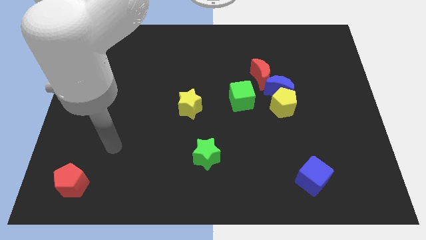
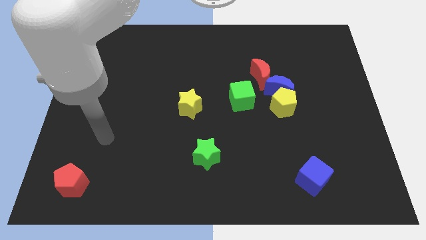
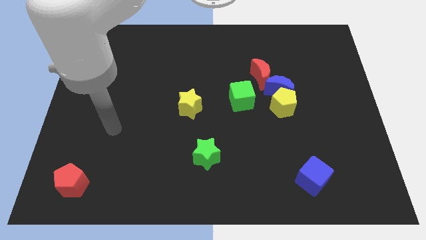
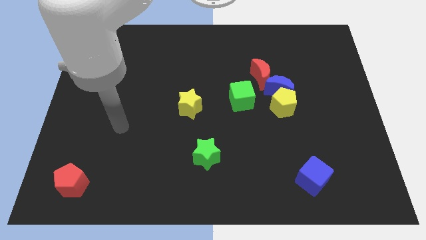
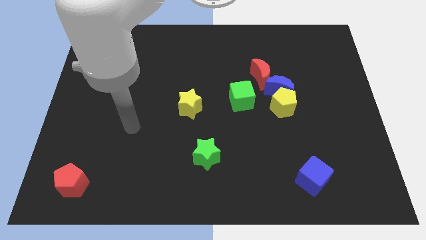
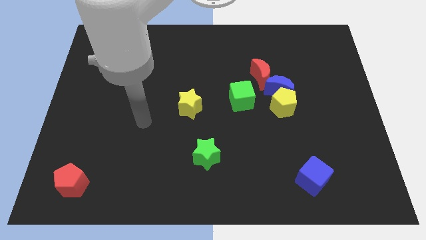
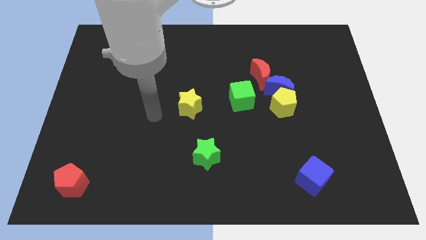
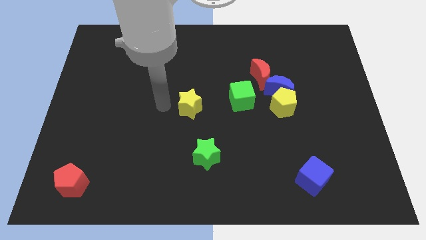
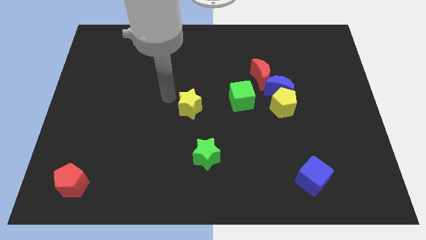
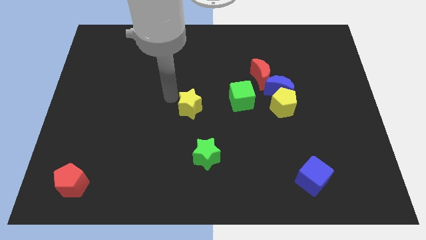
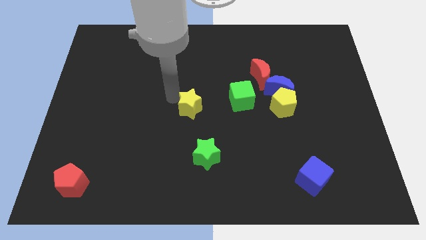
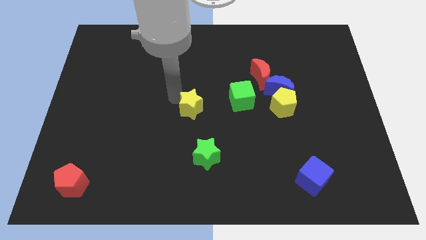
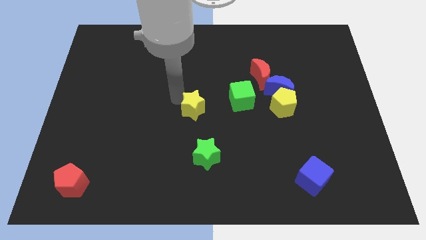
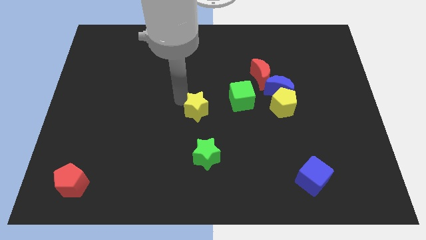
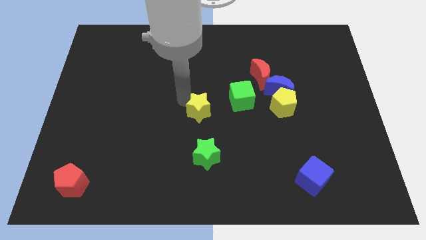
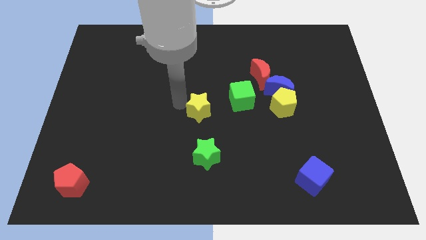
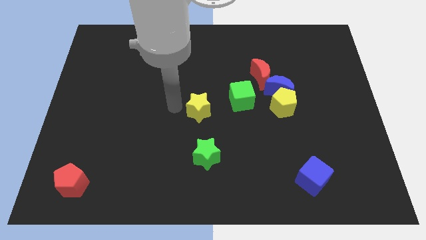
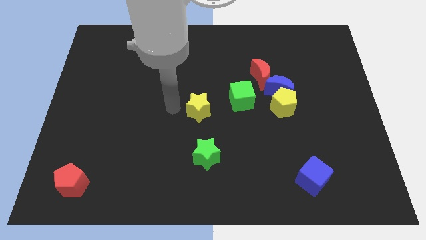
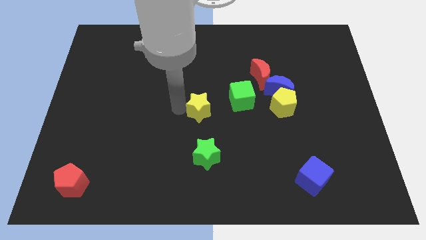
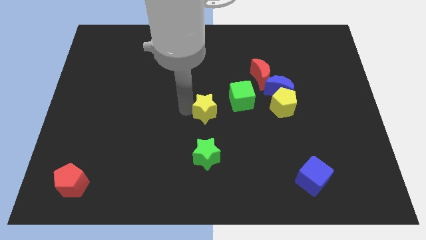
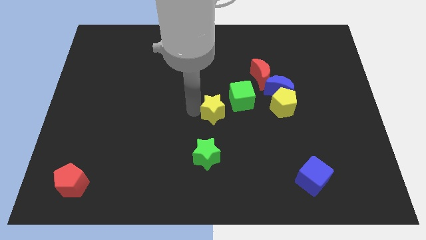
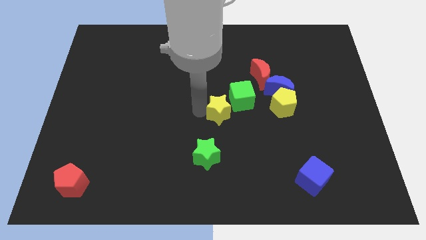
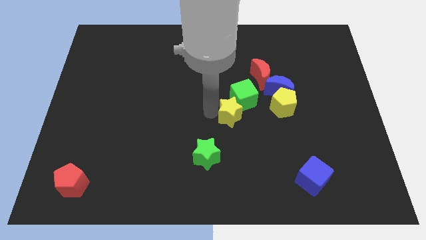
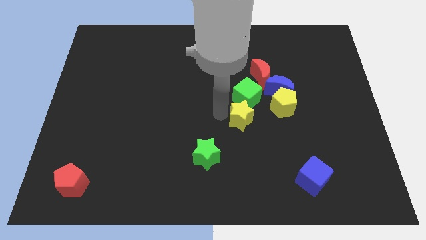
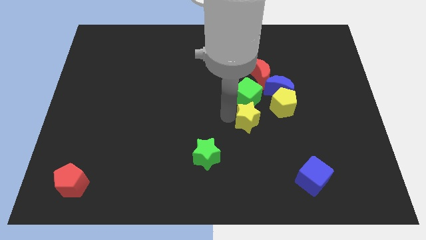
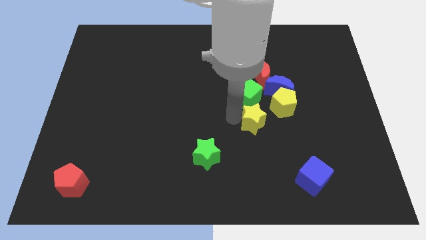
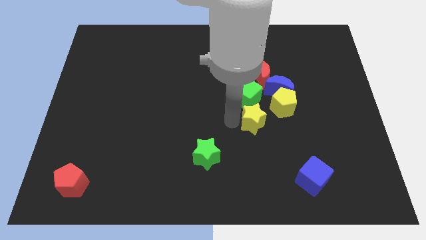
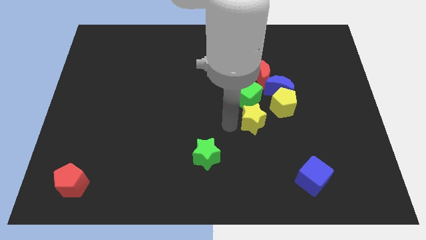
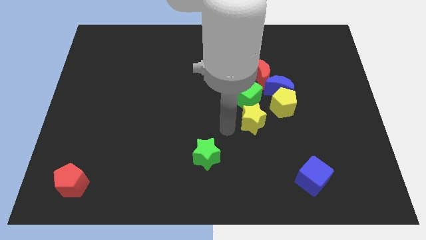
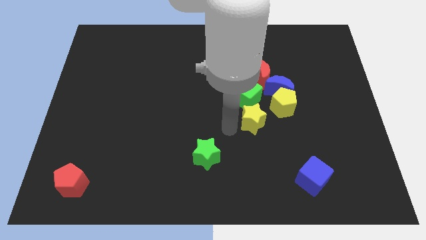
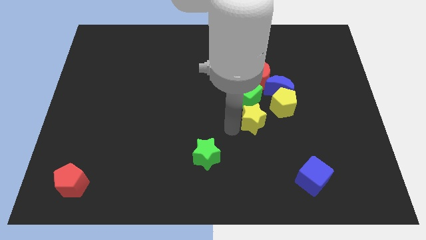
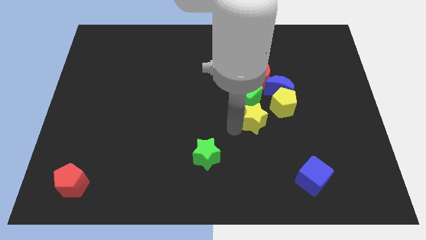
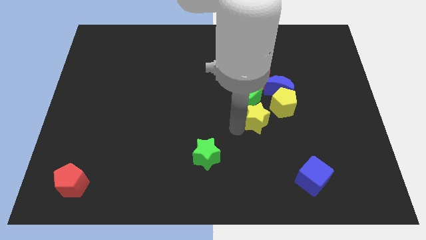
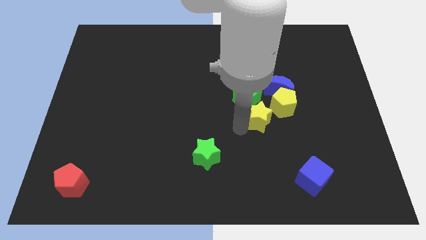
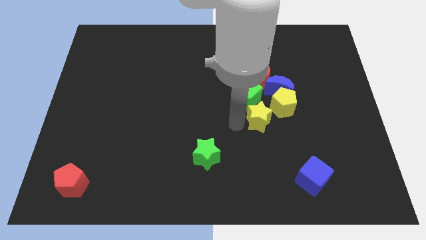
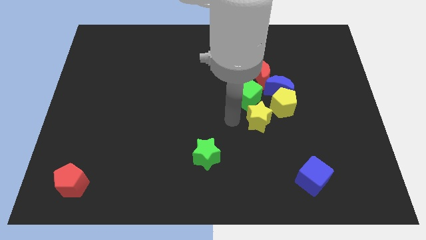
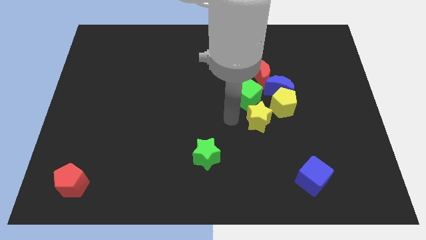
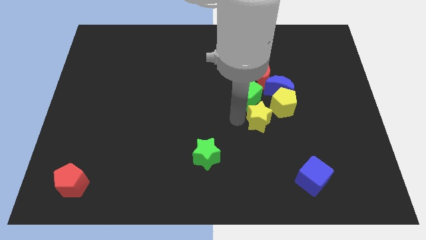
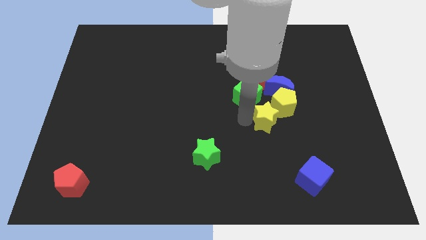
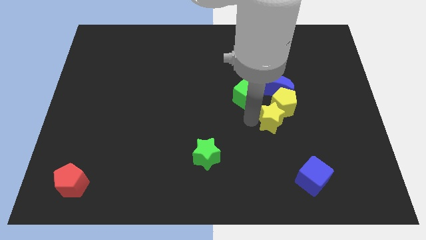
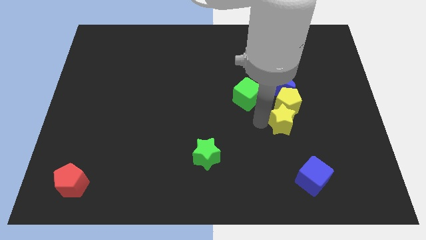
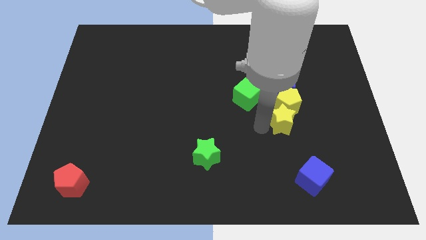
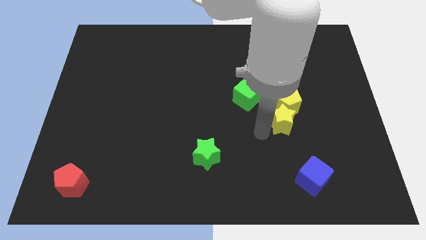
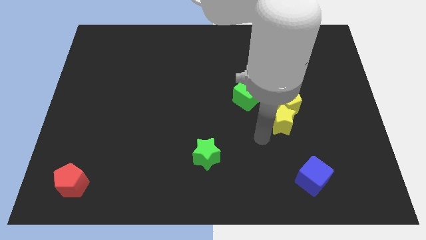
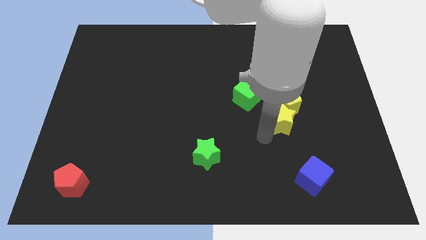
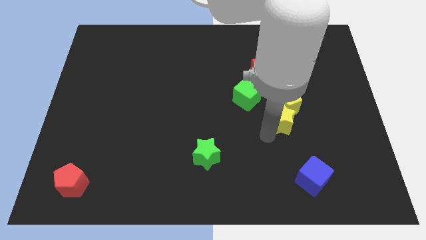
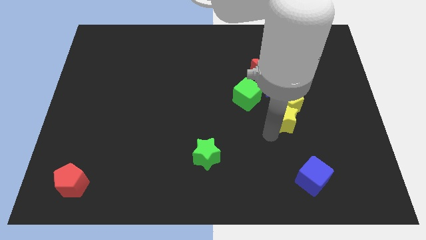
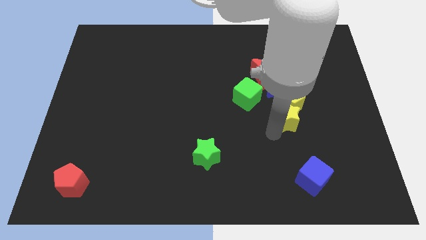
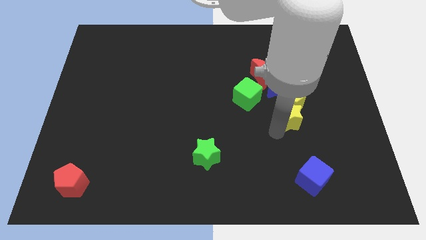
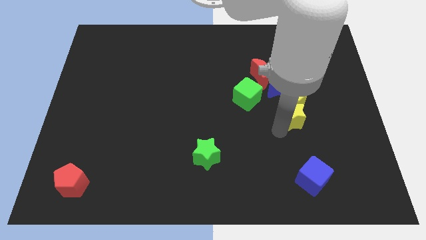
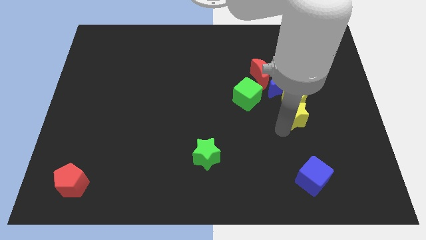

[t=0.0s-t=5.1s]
put the yellow star diagonally down and to the right of the blue moon

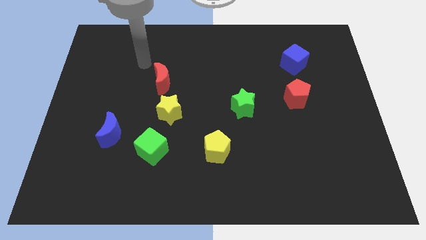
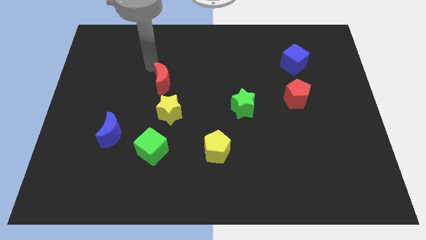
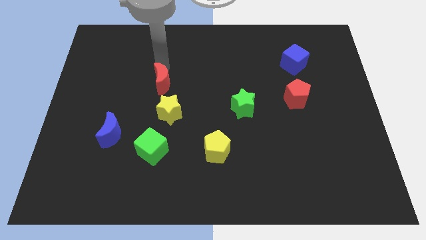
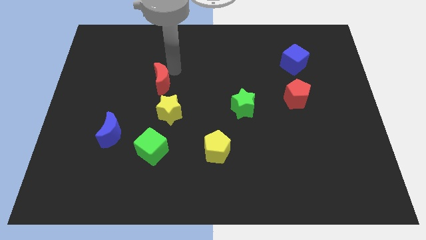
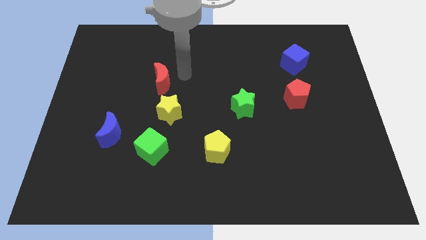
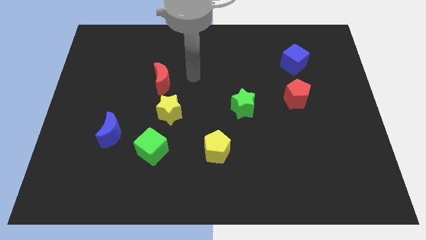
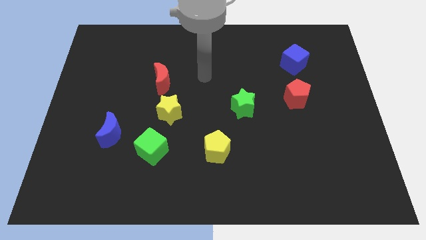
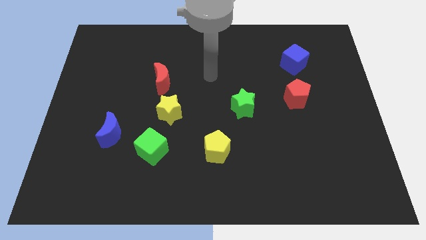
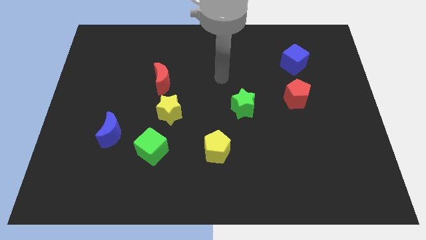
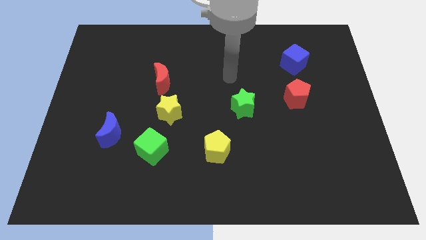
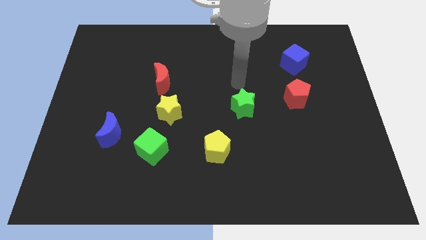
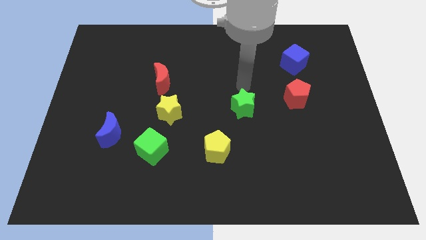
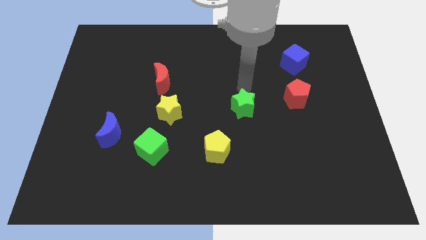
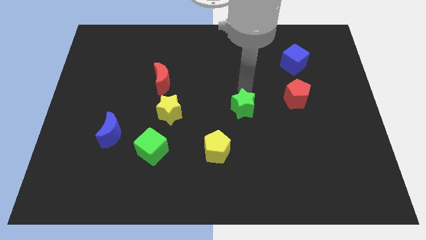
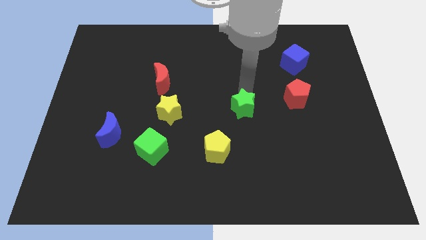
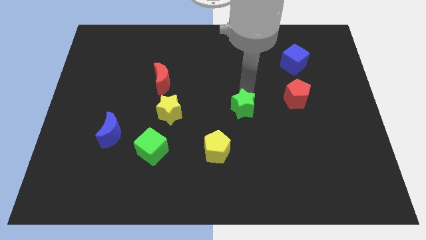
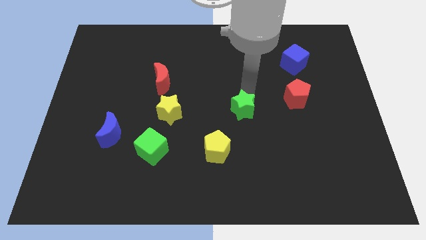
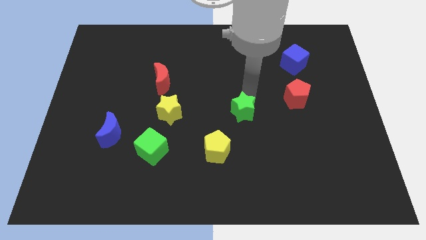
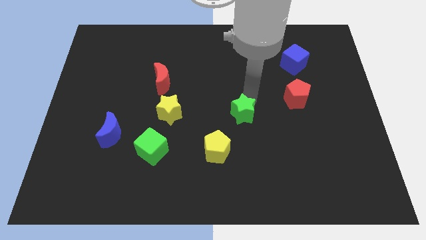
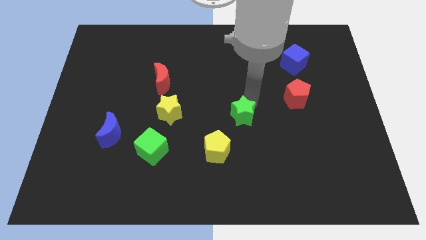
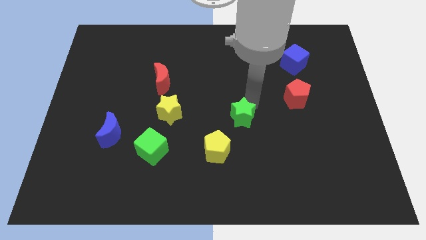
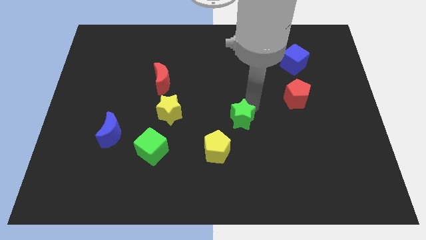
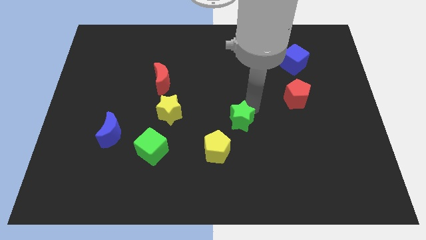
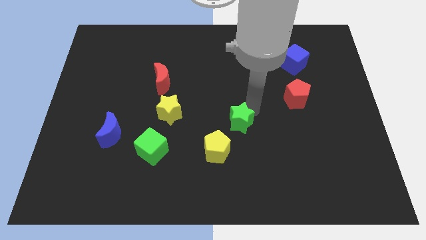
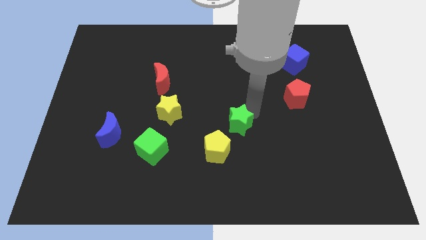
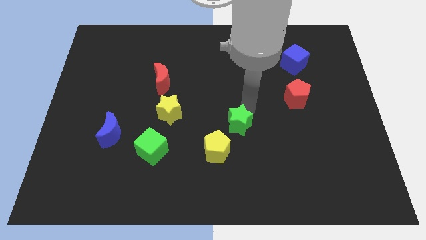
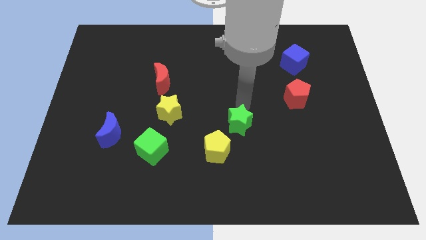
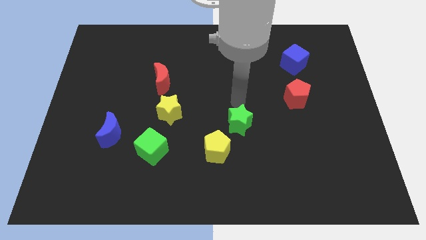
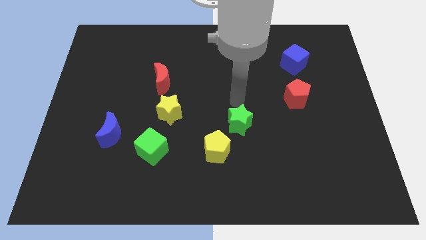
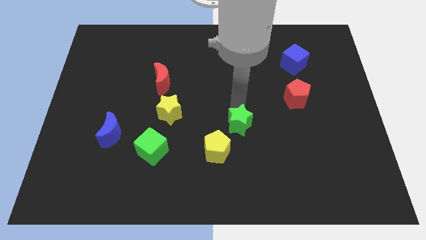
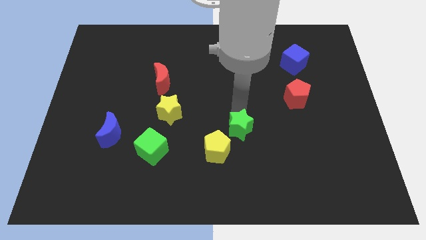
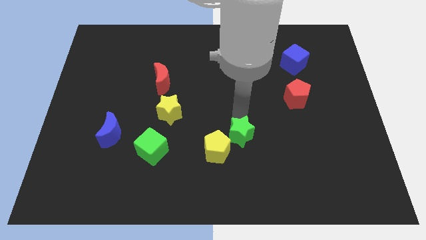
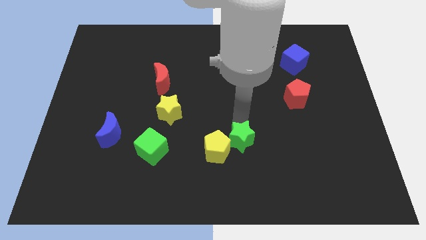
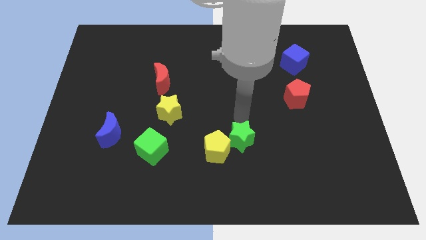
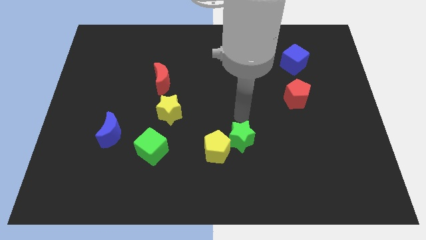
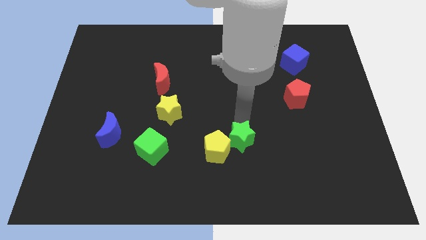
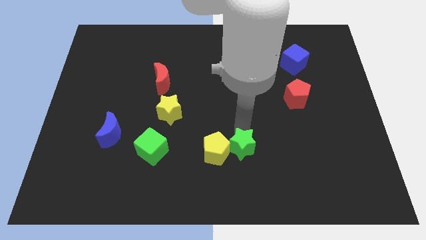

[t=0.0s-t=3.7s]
push the green star to the bottom right of the yellow pentagon

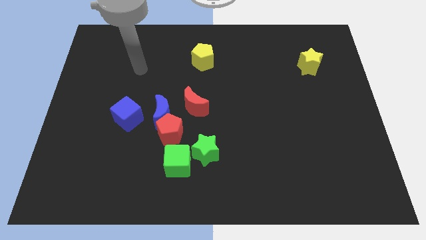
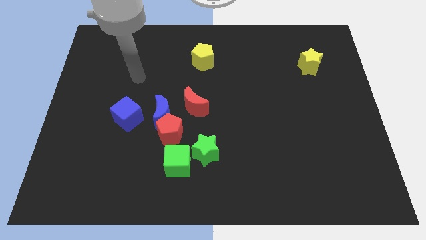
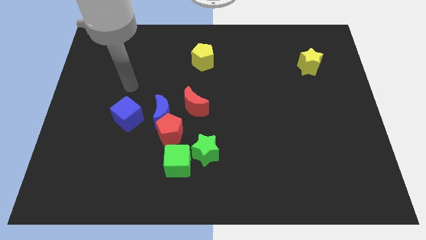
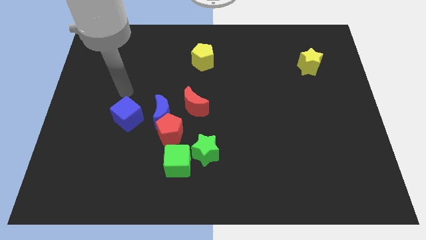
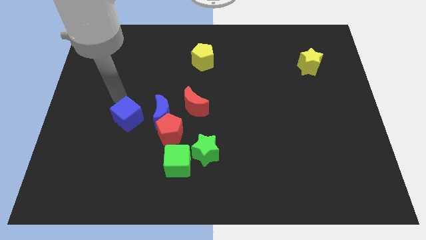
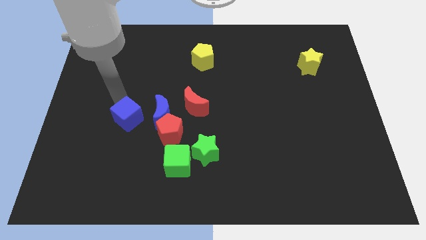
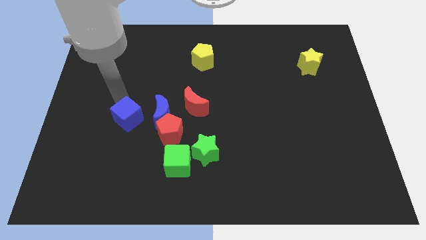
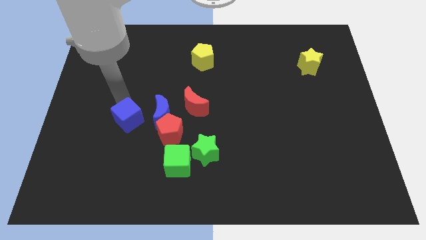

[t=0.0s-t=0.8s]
move the blue cube diagonally down and to the left of the blue moon
